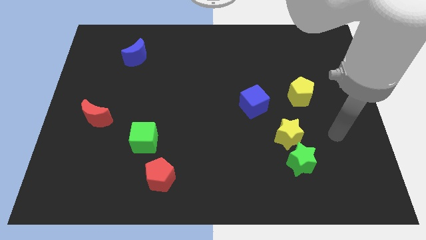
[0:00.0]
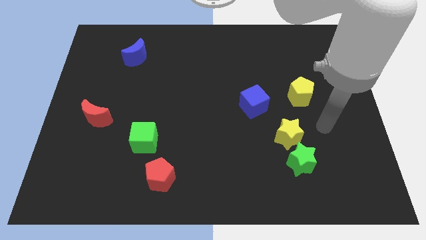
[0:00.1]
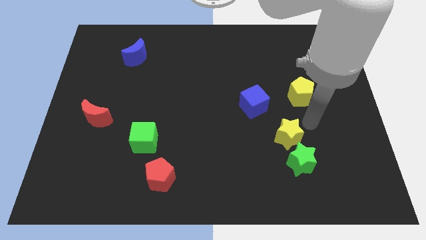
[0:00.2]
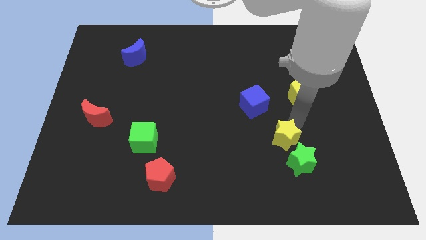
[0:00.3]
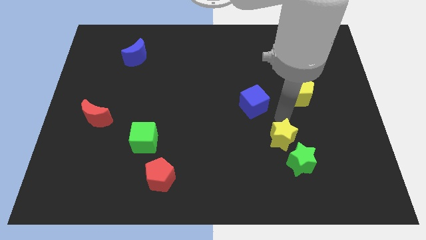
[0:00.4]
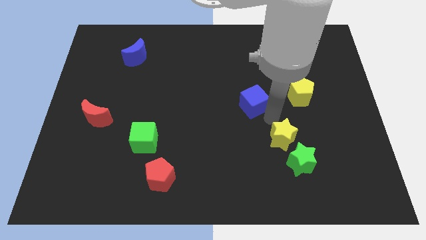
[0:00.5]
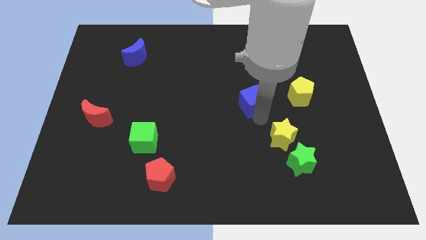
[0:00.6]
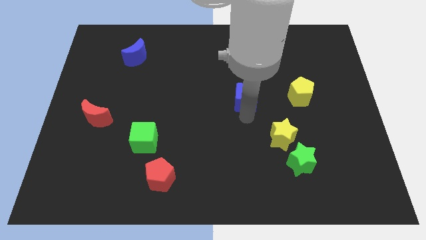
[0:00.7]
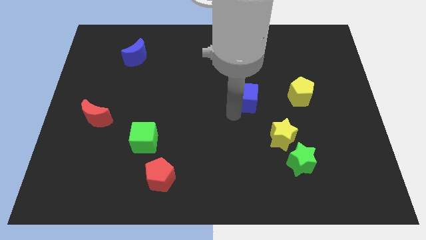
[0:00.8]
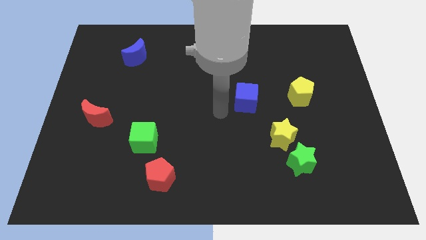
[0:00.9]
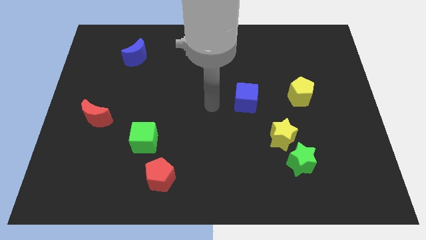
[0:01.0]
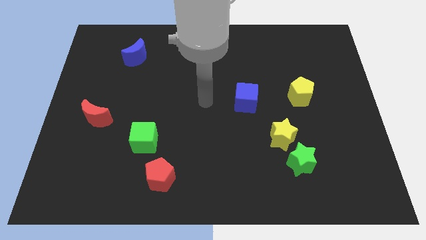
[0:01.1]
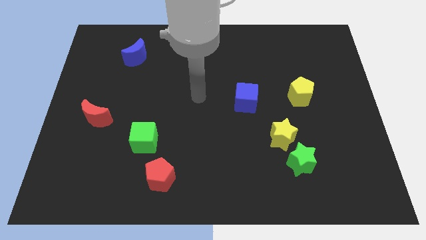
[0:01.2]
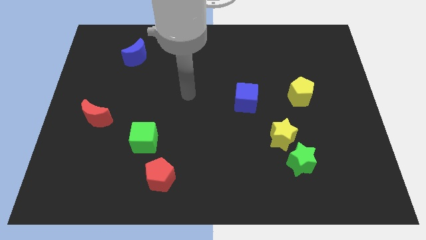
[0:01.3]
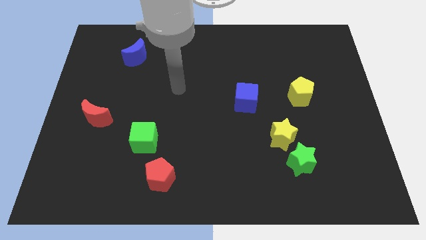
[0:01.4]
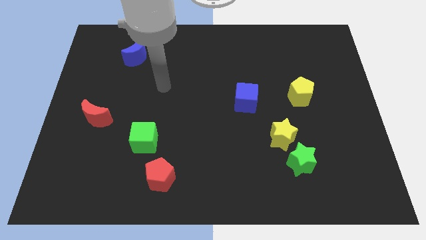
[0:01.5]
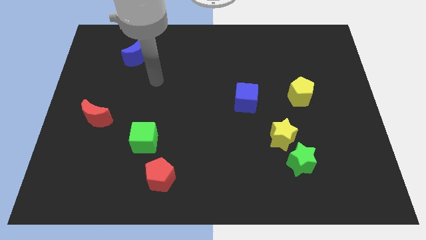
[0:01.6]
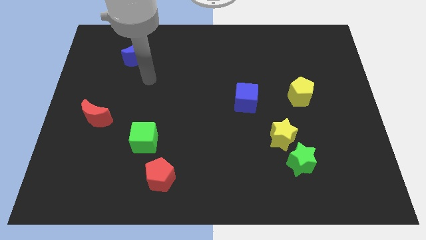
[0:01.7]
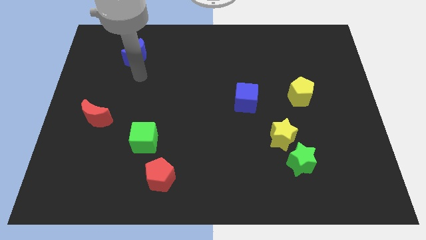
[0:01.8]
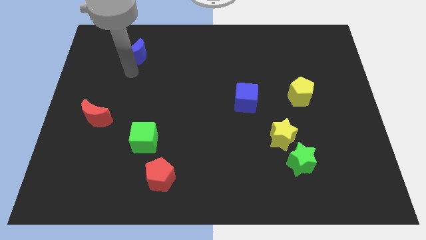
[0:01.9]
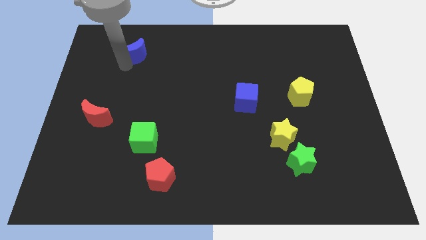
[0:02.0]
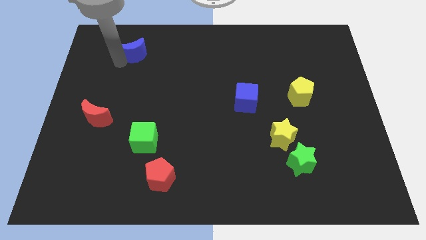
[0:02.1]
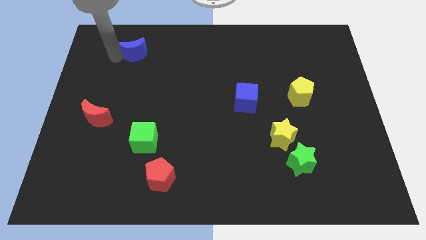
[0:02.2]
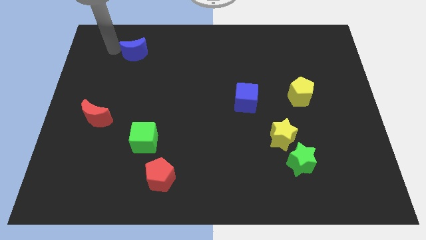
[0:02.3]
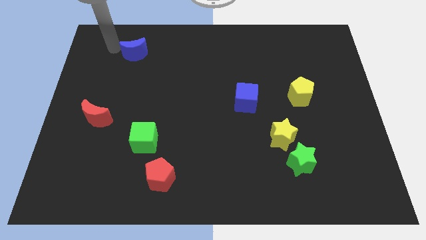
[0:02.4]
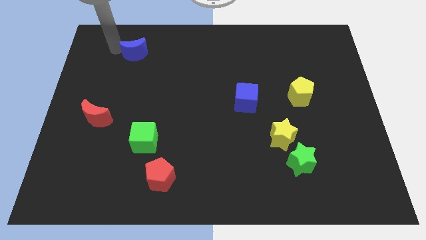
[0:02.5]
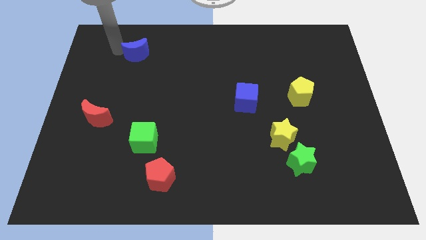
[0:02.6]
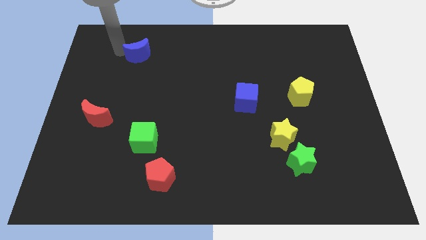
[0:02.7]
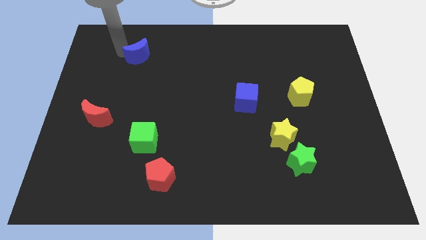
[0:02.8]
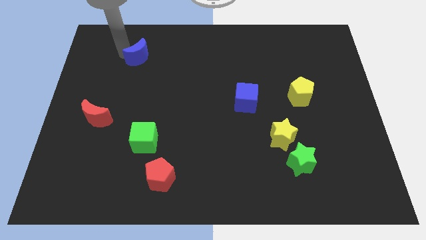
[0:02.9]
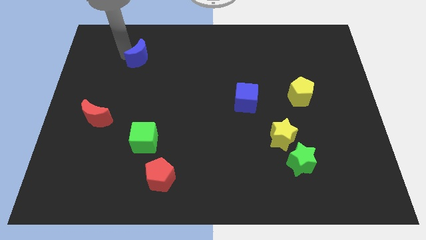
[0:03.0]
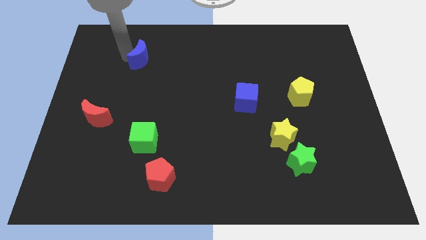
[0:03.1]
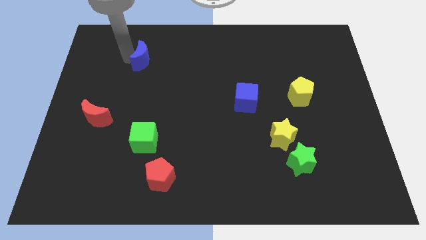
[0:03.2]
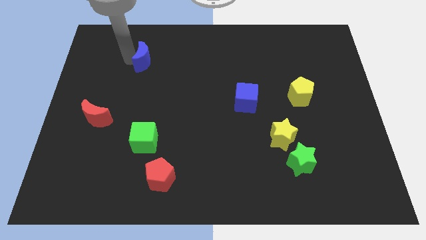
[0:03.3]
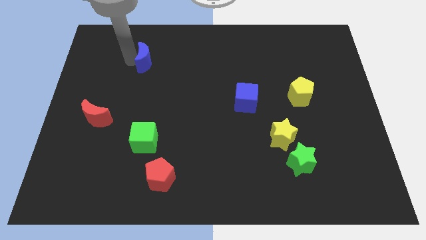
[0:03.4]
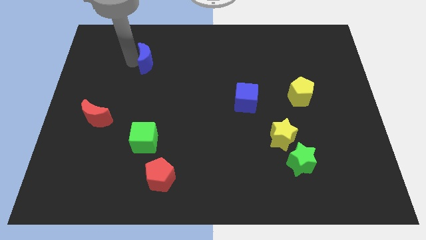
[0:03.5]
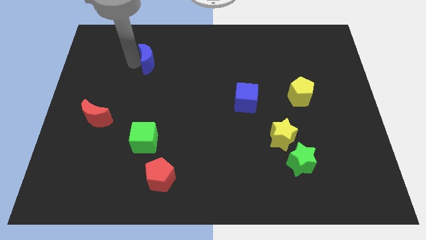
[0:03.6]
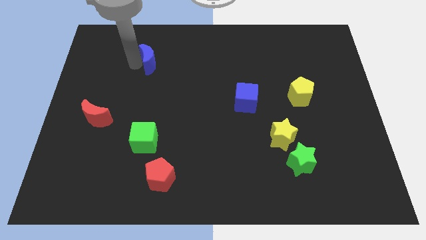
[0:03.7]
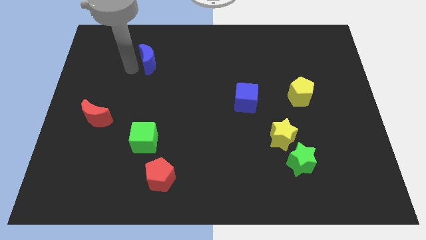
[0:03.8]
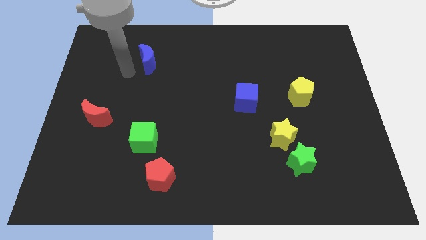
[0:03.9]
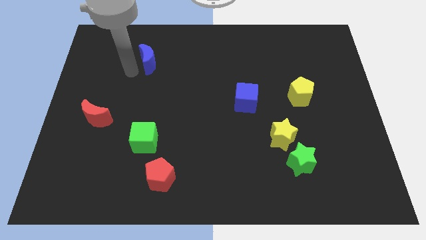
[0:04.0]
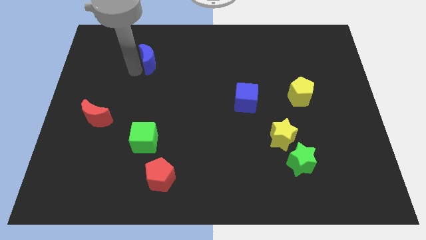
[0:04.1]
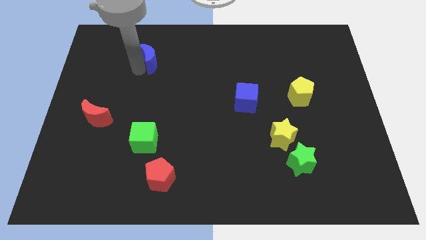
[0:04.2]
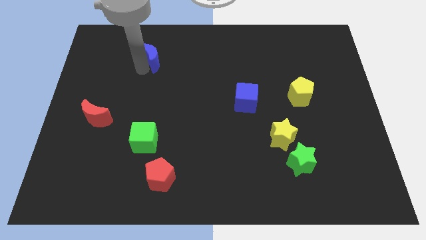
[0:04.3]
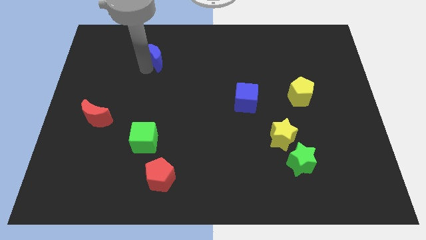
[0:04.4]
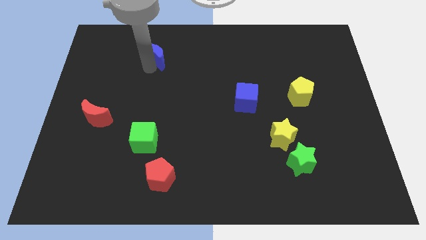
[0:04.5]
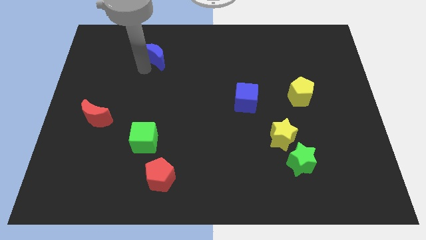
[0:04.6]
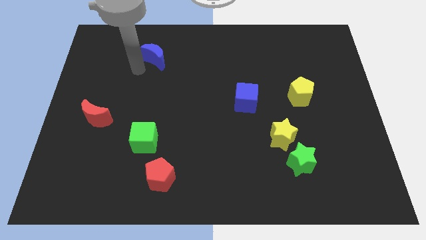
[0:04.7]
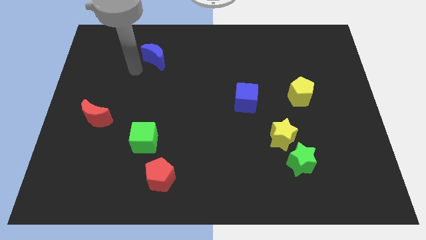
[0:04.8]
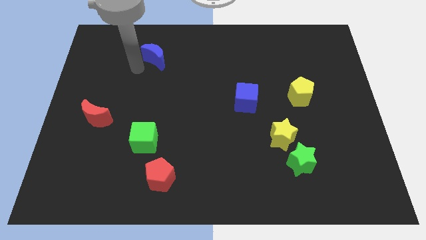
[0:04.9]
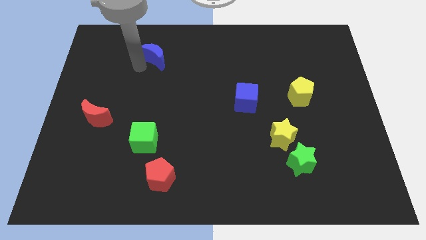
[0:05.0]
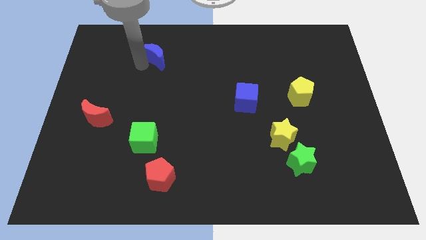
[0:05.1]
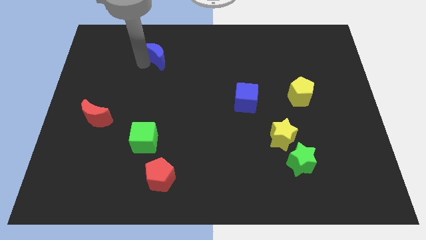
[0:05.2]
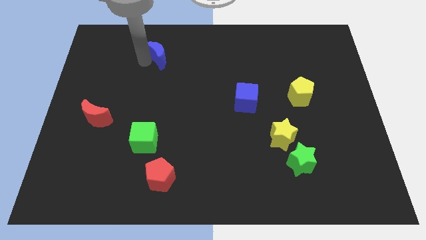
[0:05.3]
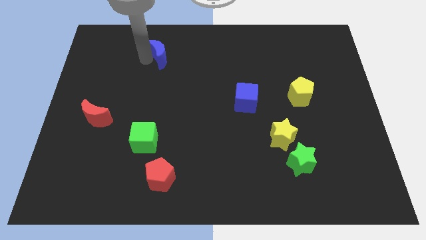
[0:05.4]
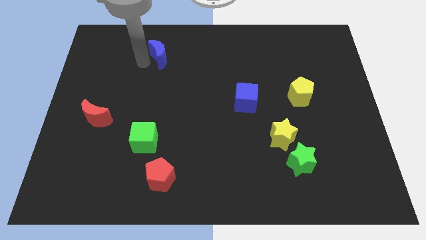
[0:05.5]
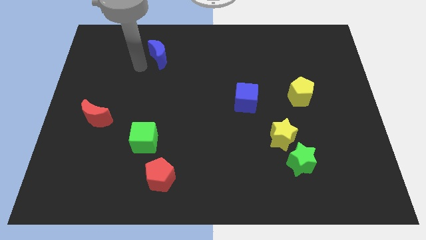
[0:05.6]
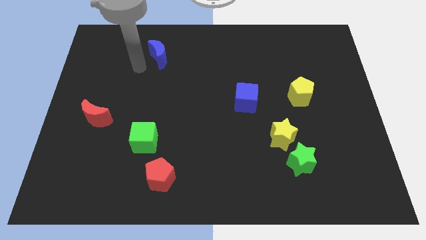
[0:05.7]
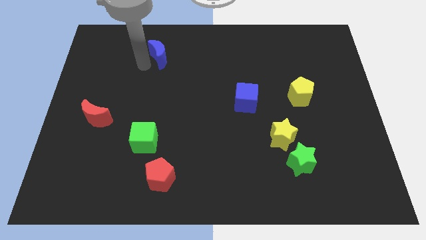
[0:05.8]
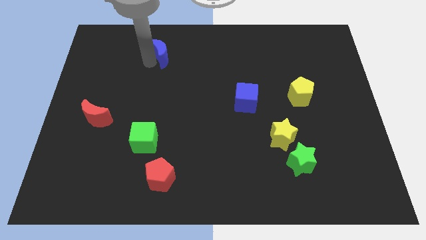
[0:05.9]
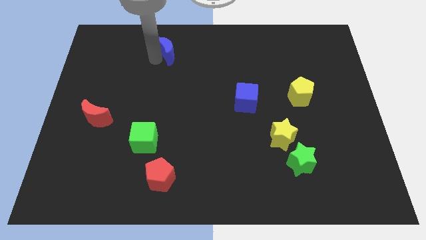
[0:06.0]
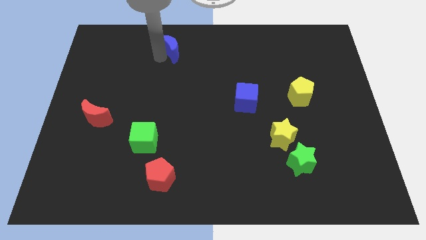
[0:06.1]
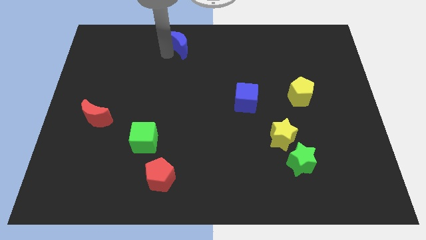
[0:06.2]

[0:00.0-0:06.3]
push the blue moon to the top side
